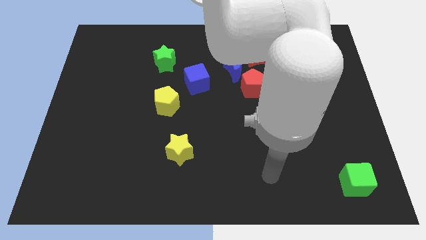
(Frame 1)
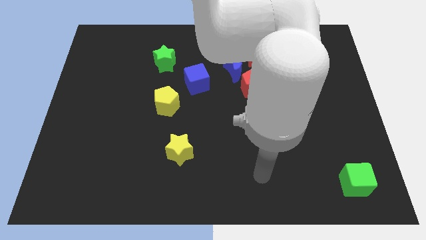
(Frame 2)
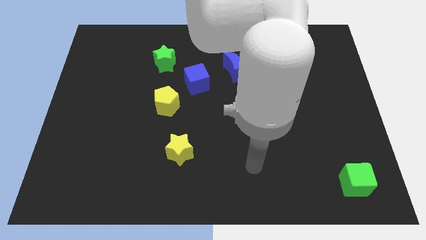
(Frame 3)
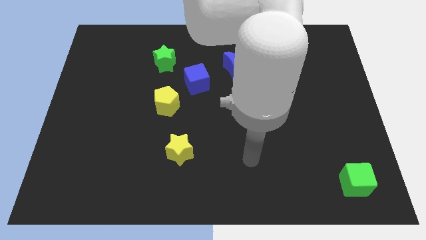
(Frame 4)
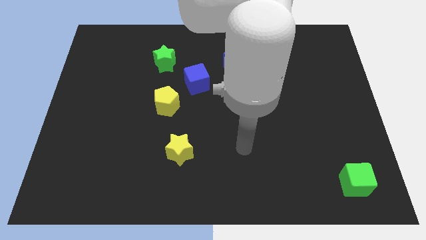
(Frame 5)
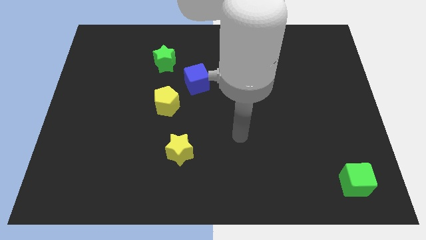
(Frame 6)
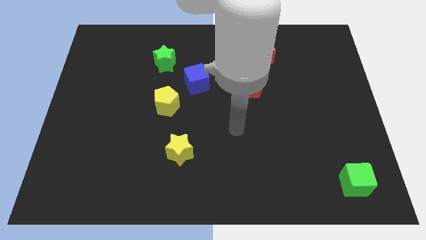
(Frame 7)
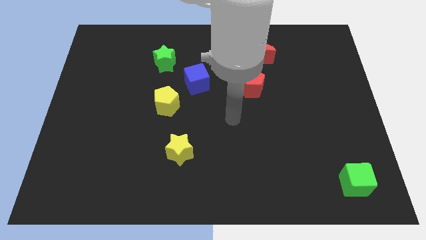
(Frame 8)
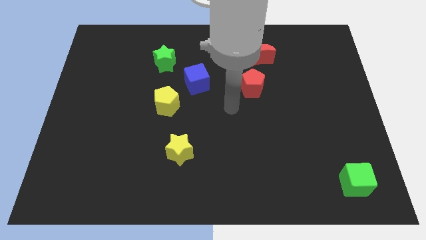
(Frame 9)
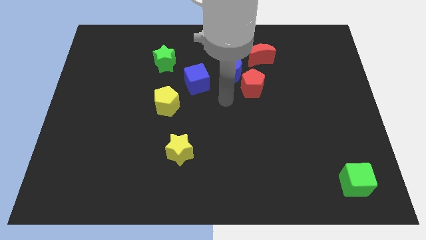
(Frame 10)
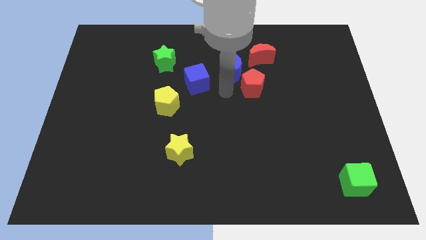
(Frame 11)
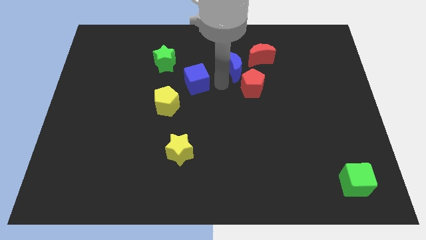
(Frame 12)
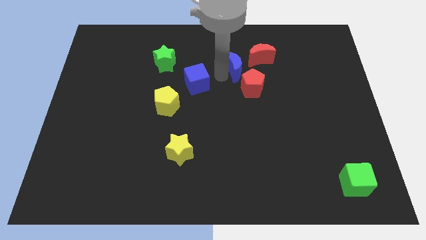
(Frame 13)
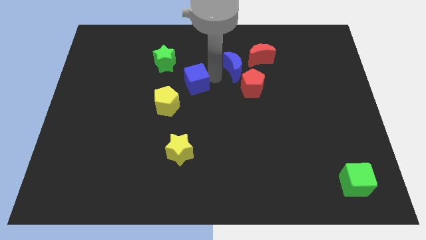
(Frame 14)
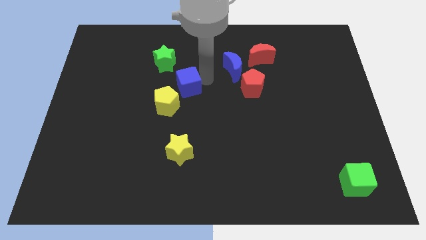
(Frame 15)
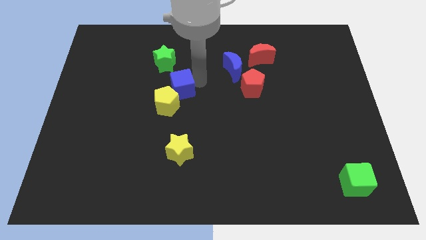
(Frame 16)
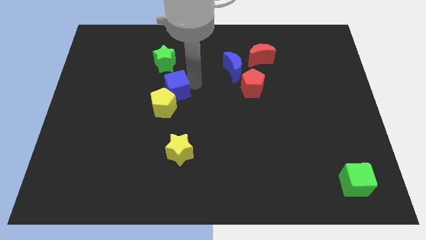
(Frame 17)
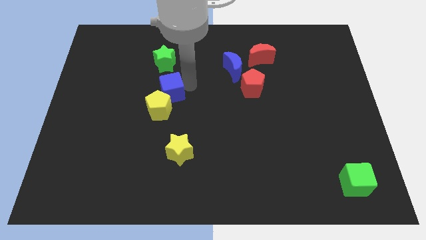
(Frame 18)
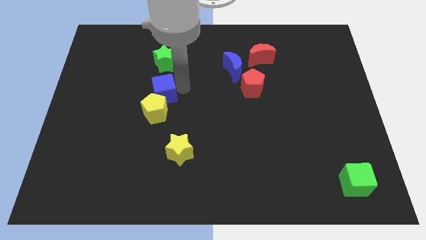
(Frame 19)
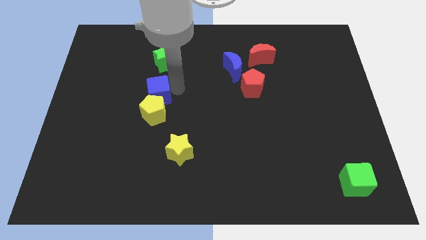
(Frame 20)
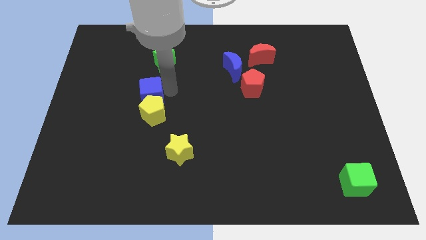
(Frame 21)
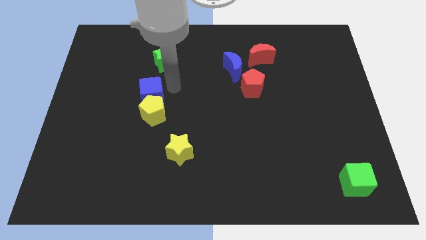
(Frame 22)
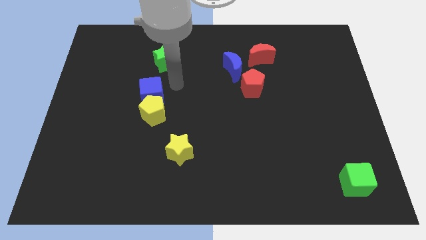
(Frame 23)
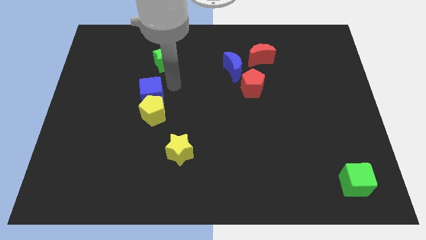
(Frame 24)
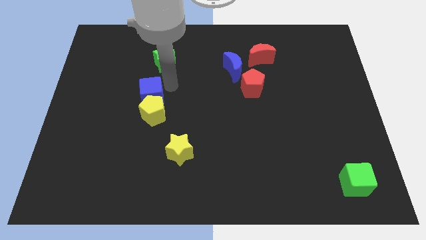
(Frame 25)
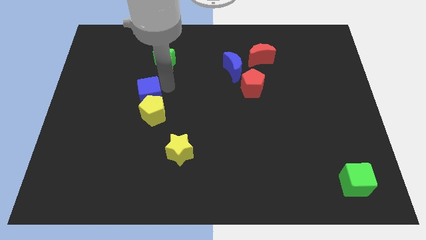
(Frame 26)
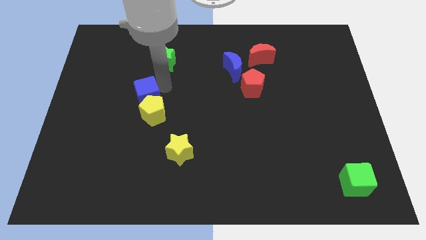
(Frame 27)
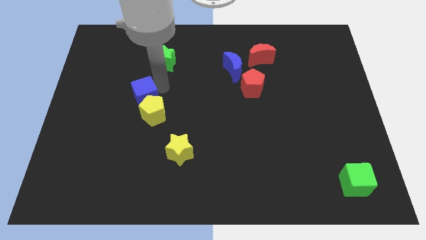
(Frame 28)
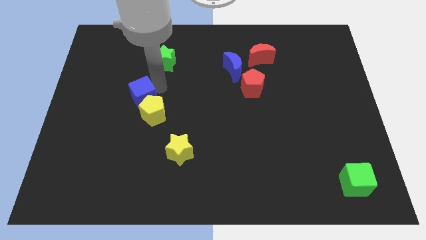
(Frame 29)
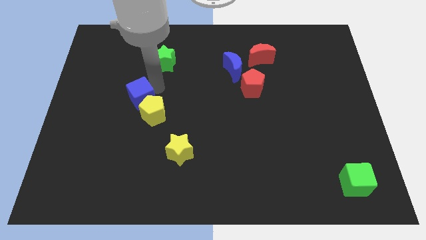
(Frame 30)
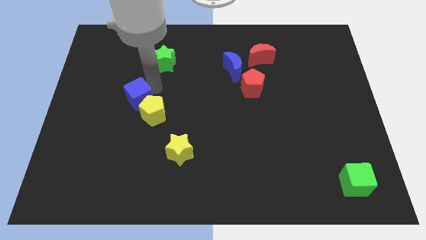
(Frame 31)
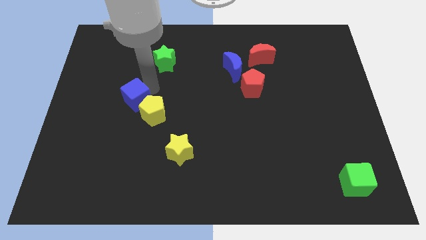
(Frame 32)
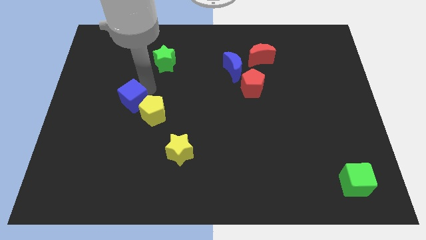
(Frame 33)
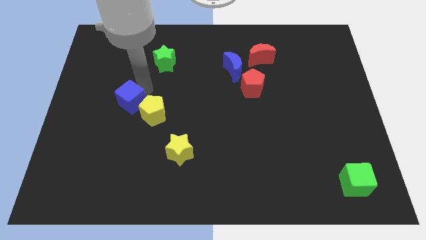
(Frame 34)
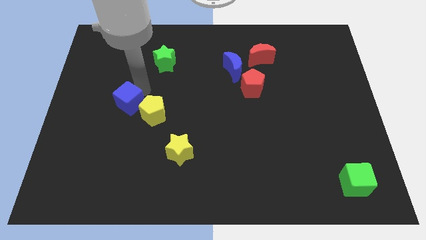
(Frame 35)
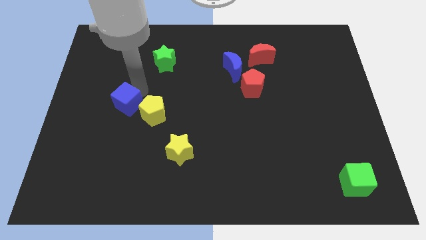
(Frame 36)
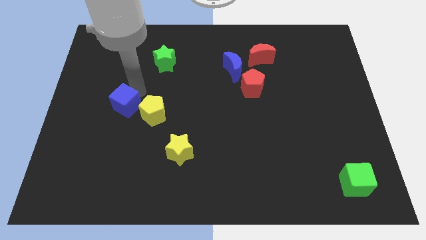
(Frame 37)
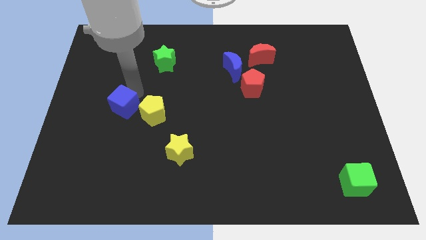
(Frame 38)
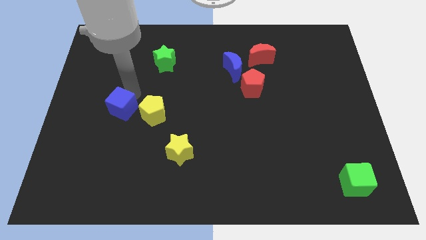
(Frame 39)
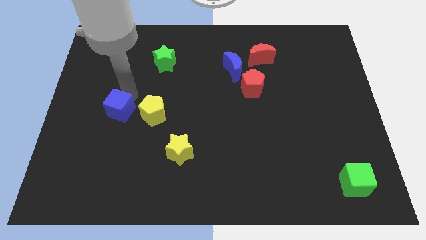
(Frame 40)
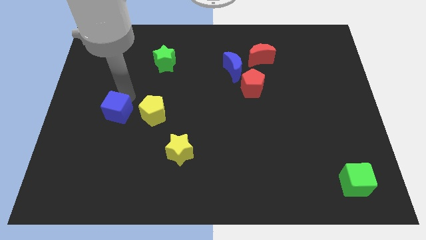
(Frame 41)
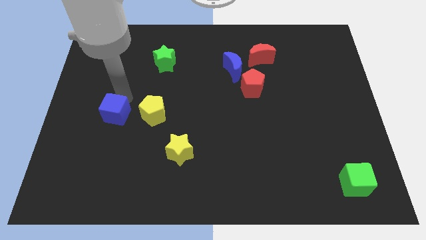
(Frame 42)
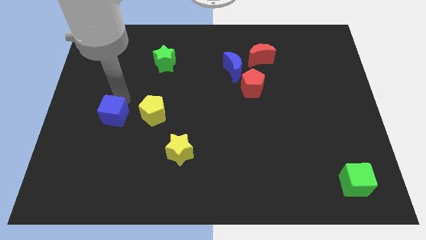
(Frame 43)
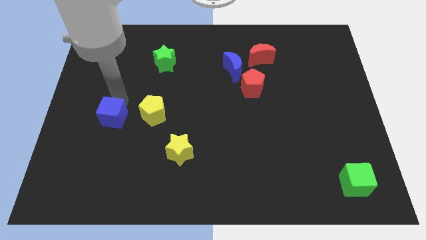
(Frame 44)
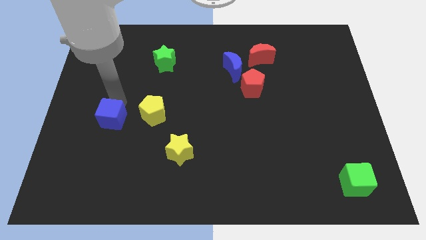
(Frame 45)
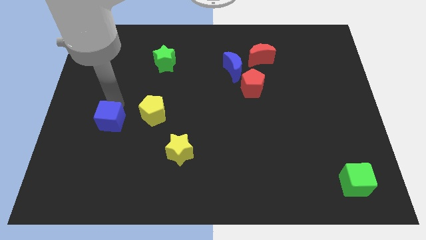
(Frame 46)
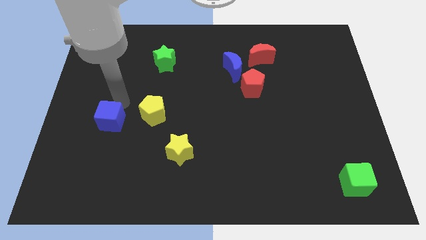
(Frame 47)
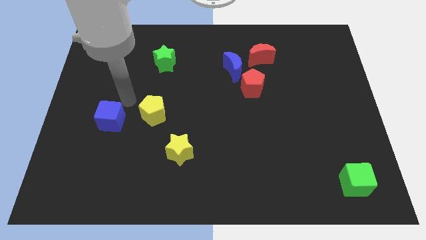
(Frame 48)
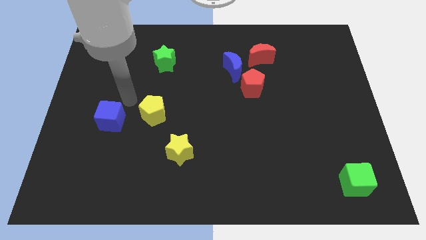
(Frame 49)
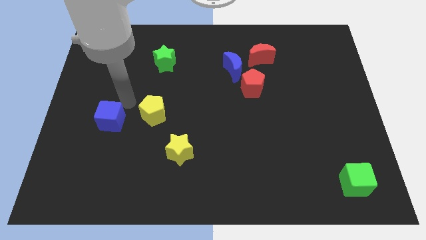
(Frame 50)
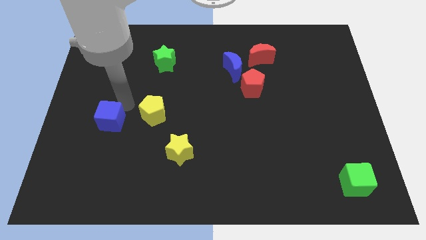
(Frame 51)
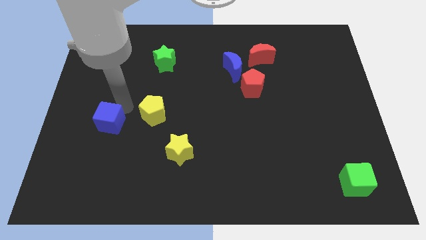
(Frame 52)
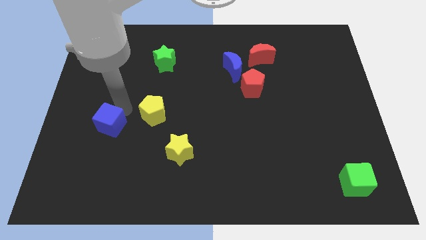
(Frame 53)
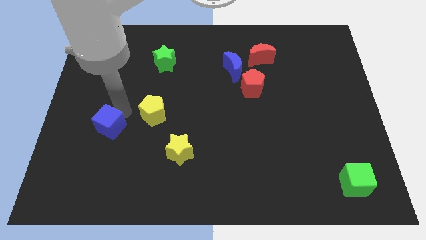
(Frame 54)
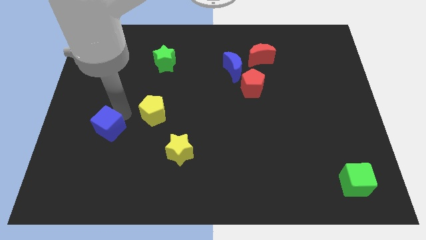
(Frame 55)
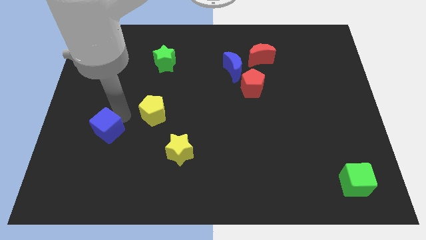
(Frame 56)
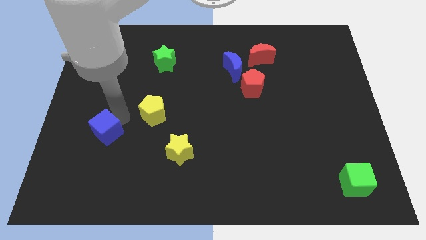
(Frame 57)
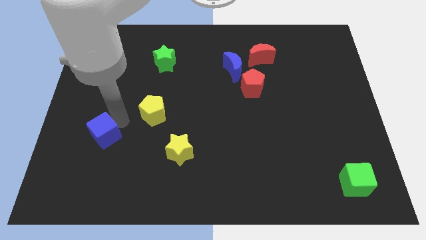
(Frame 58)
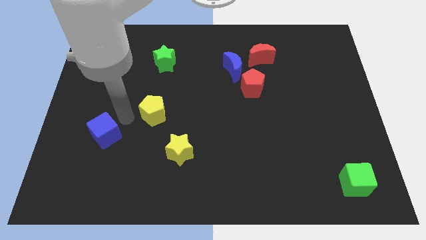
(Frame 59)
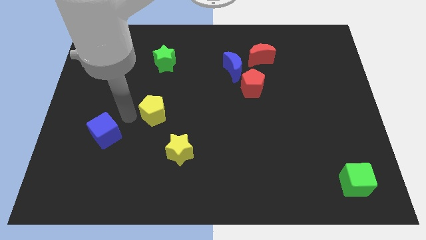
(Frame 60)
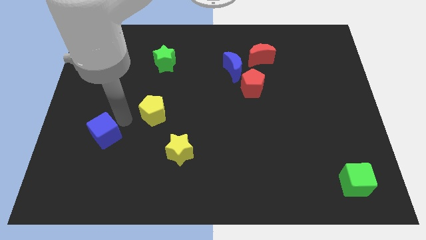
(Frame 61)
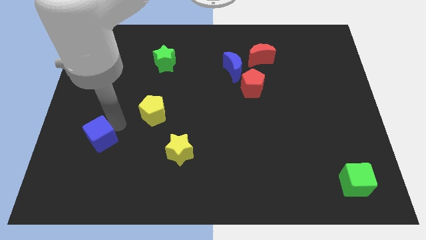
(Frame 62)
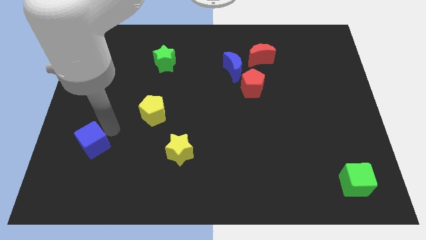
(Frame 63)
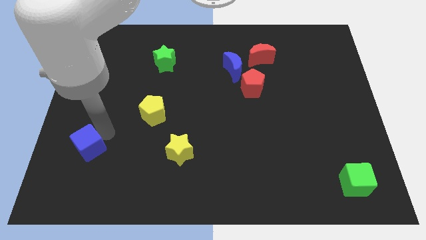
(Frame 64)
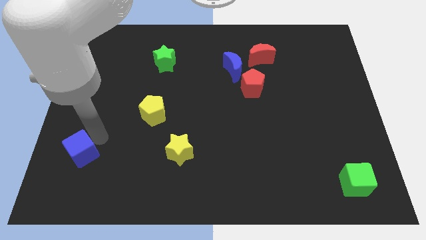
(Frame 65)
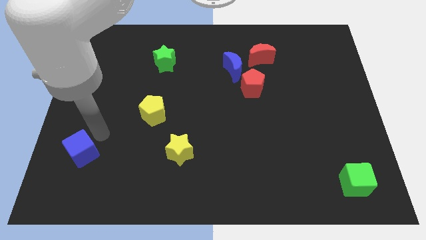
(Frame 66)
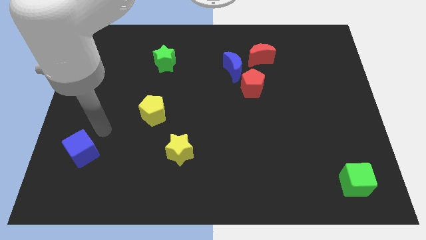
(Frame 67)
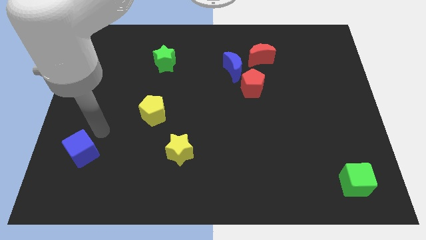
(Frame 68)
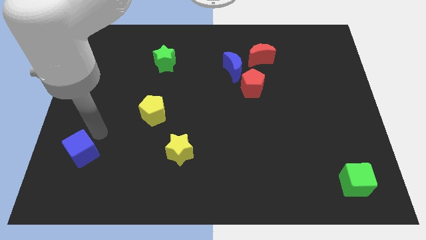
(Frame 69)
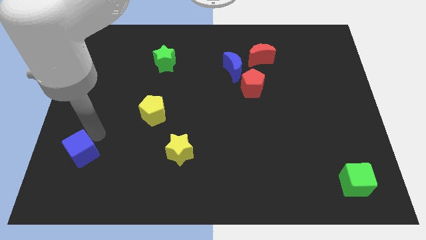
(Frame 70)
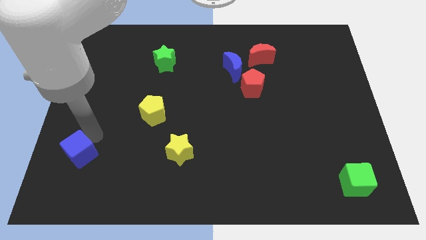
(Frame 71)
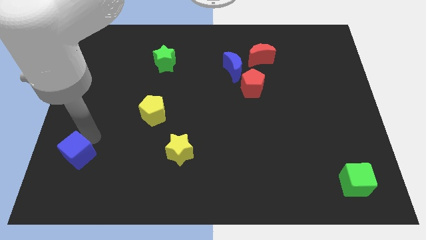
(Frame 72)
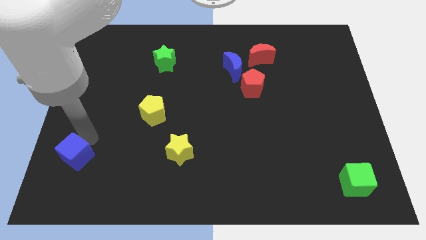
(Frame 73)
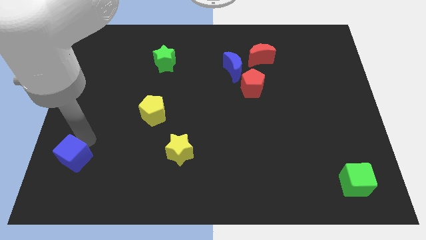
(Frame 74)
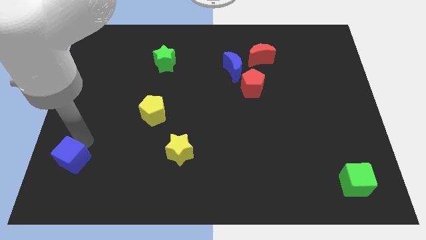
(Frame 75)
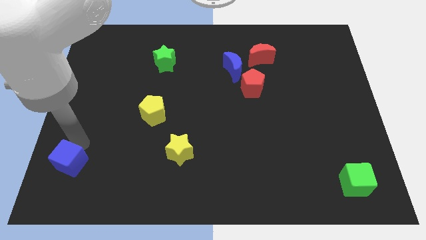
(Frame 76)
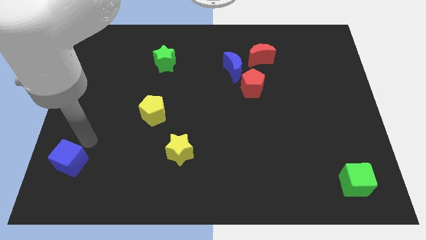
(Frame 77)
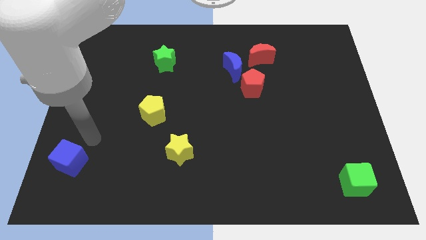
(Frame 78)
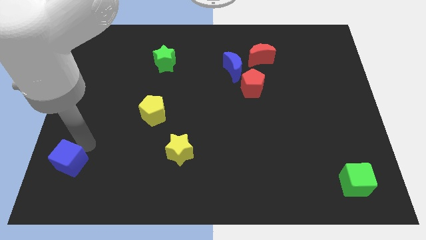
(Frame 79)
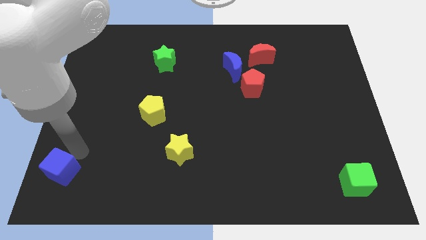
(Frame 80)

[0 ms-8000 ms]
push the blue cube to the bottom left corner
